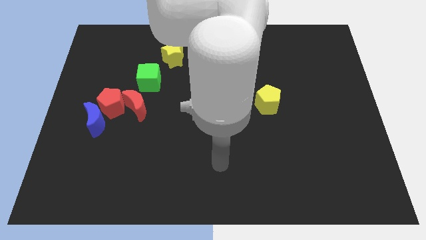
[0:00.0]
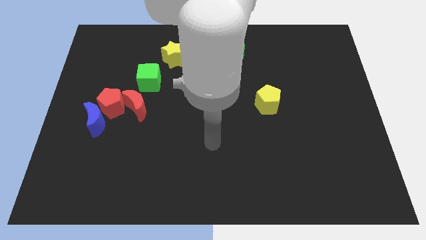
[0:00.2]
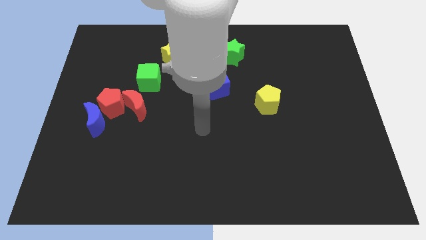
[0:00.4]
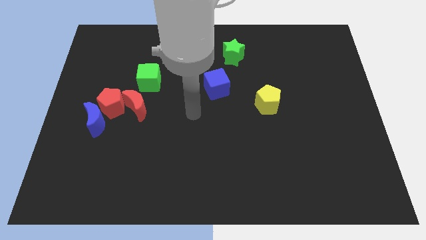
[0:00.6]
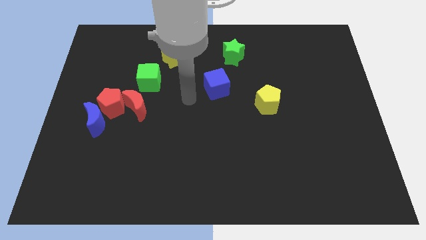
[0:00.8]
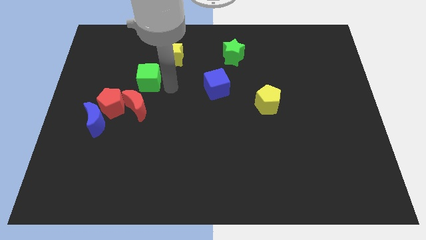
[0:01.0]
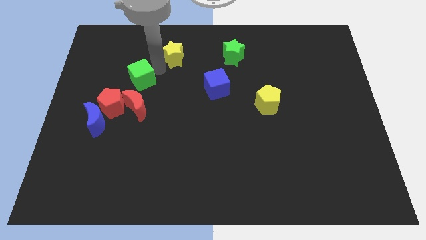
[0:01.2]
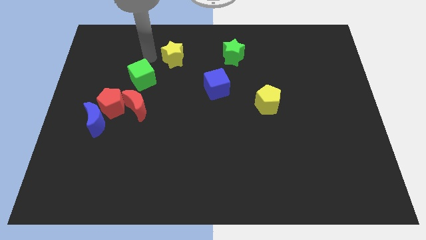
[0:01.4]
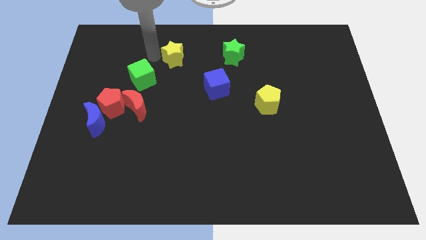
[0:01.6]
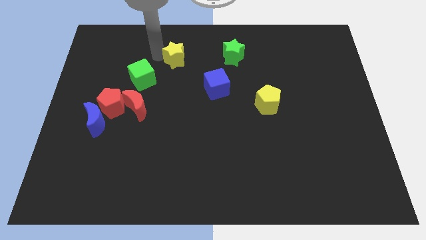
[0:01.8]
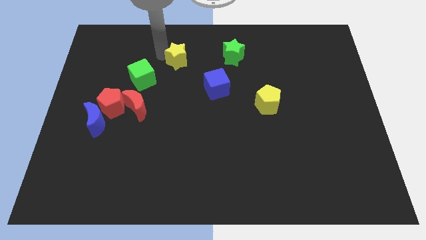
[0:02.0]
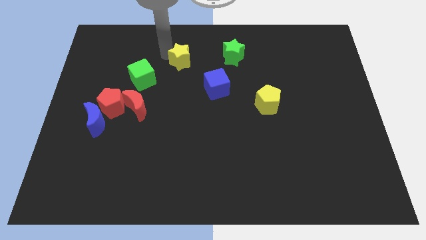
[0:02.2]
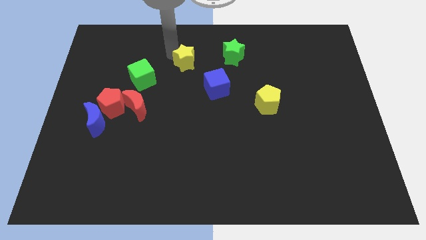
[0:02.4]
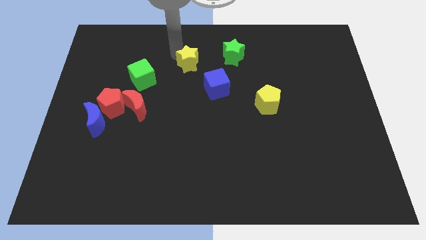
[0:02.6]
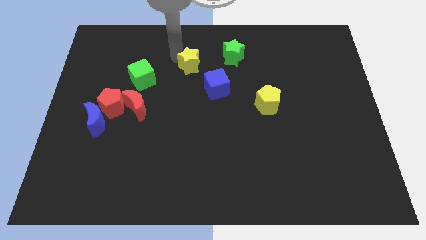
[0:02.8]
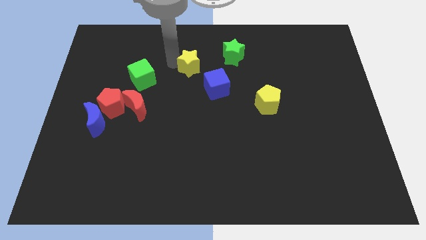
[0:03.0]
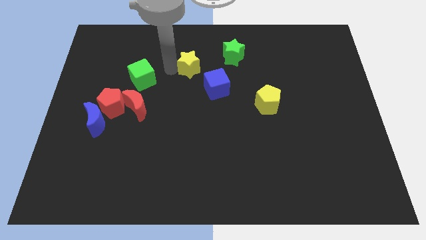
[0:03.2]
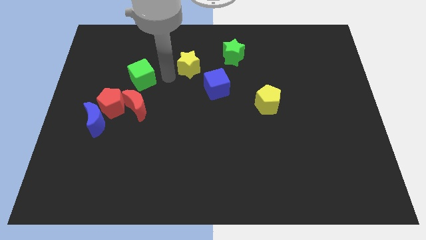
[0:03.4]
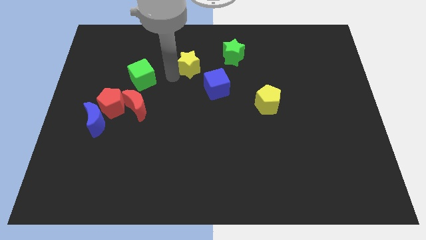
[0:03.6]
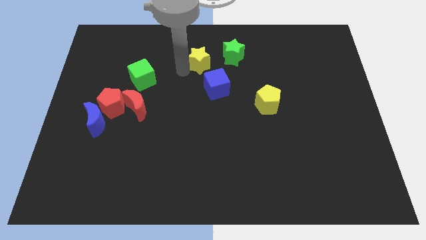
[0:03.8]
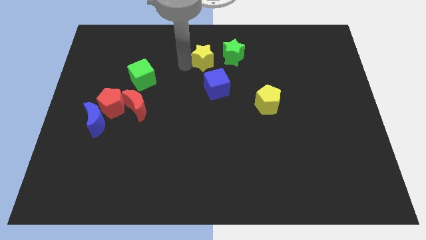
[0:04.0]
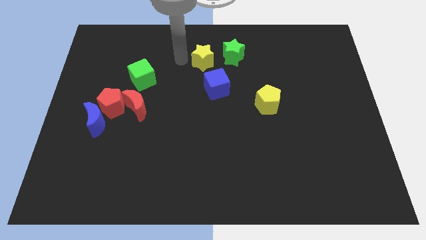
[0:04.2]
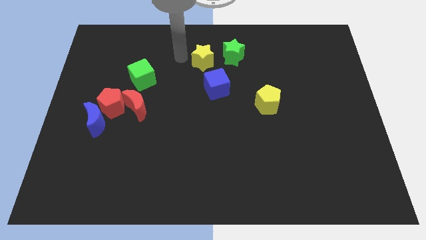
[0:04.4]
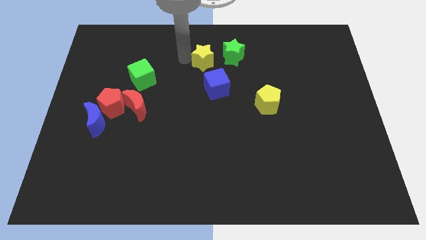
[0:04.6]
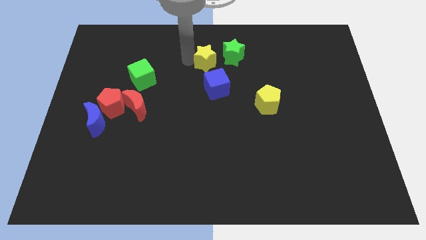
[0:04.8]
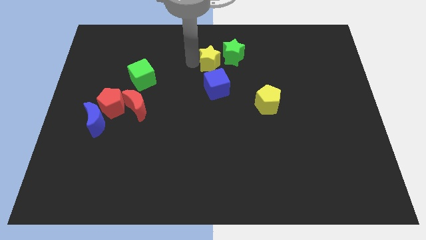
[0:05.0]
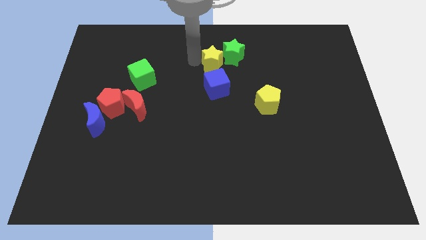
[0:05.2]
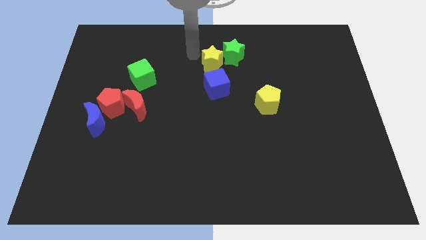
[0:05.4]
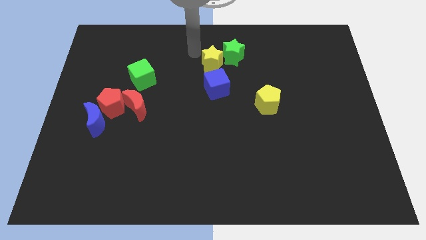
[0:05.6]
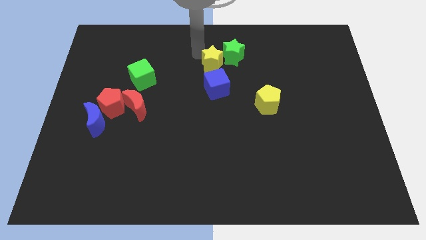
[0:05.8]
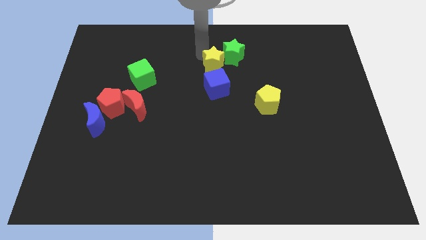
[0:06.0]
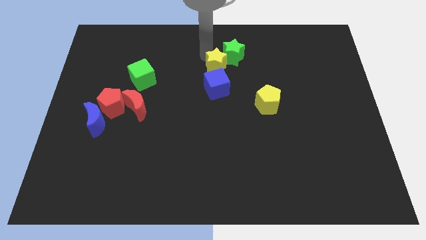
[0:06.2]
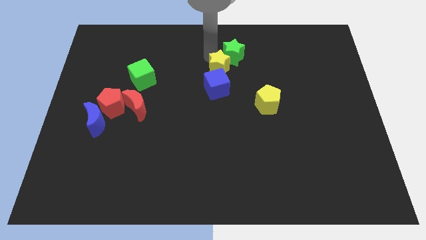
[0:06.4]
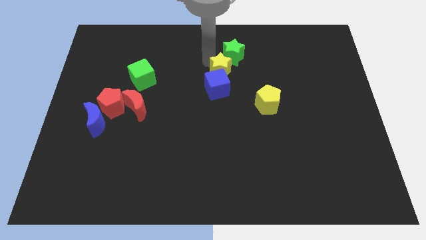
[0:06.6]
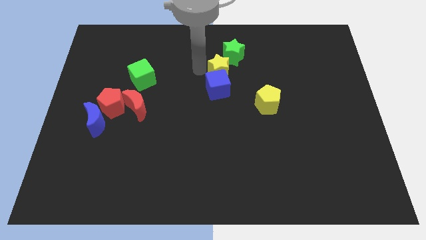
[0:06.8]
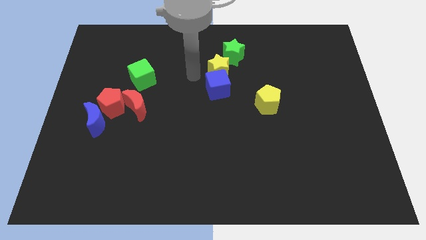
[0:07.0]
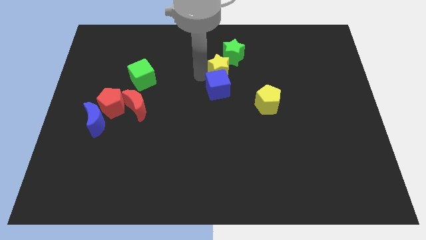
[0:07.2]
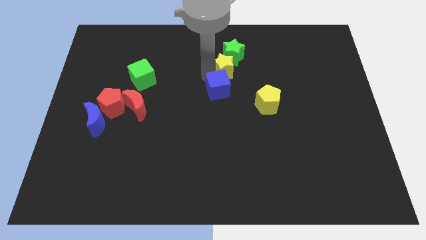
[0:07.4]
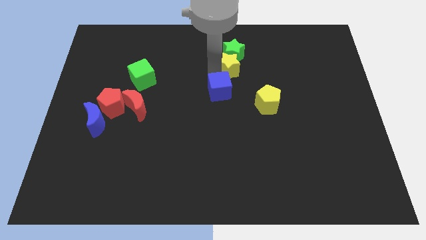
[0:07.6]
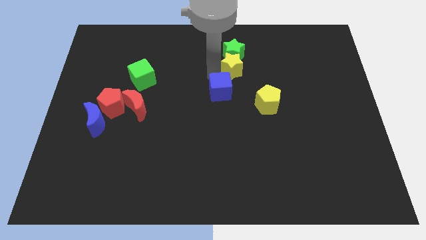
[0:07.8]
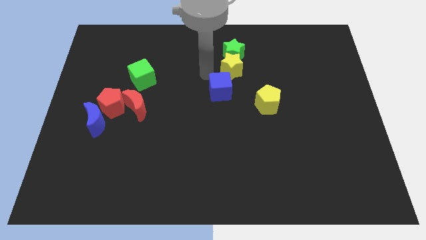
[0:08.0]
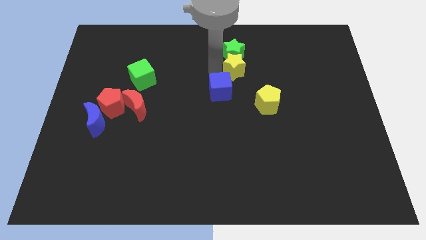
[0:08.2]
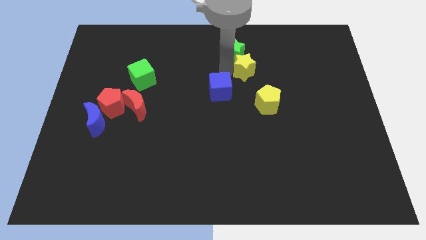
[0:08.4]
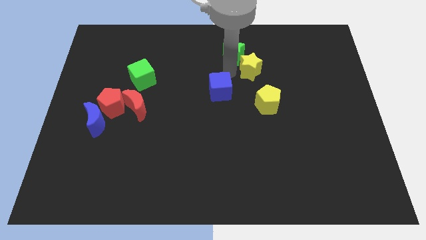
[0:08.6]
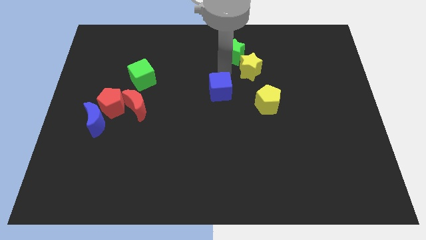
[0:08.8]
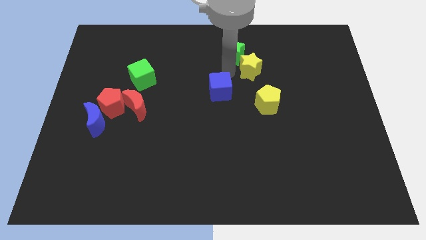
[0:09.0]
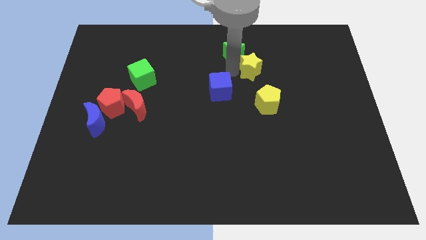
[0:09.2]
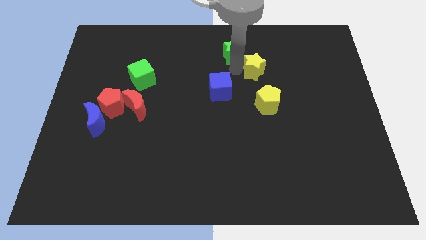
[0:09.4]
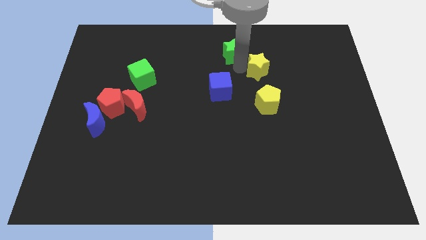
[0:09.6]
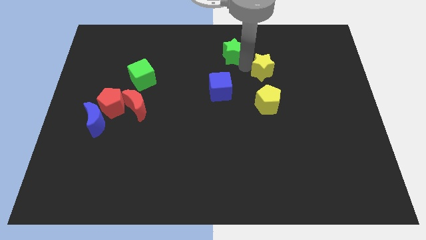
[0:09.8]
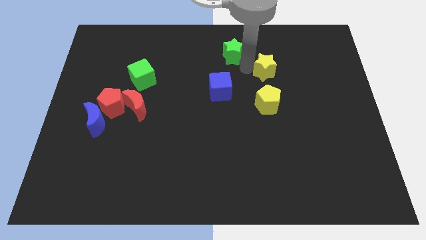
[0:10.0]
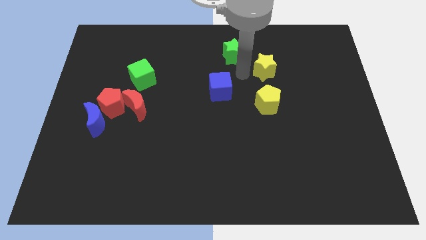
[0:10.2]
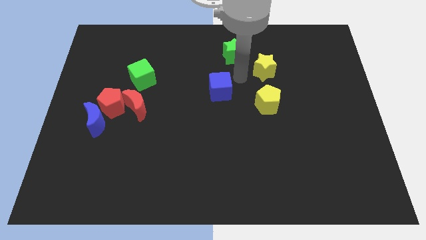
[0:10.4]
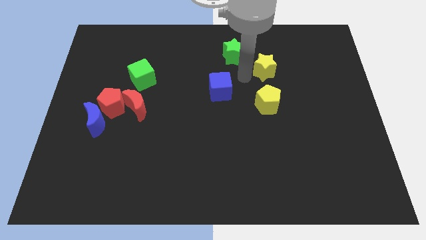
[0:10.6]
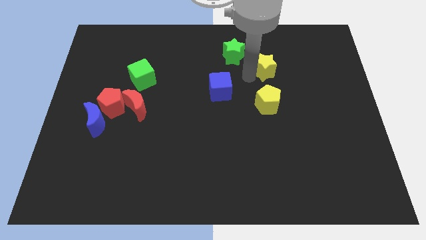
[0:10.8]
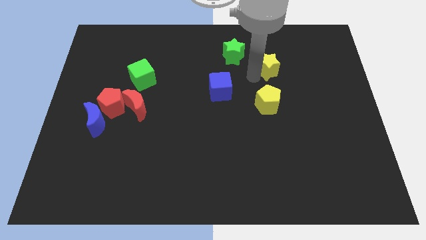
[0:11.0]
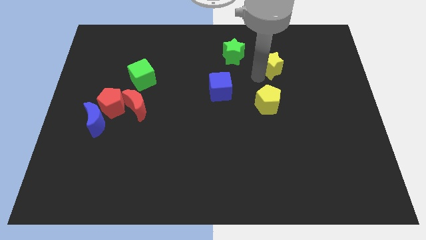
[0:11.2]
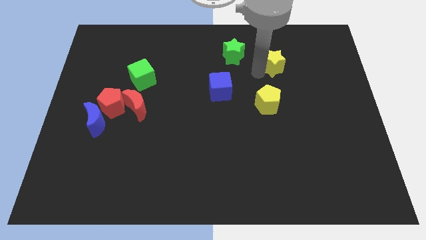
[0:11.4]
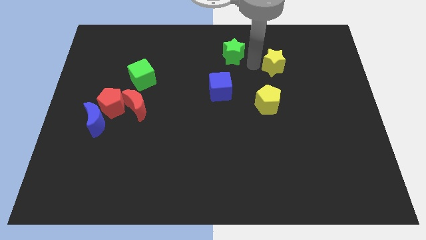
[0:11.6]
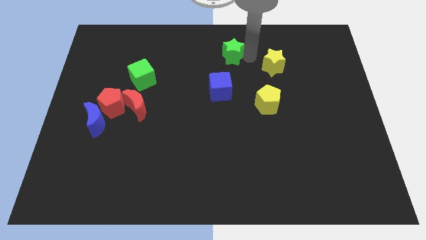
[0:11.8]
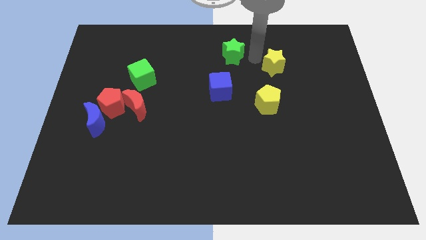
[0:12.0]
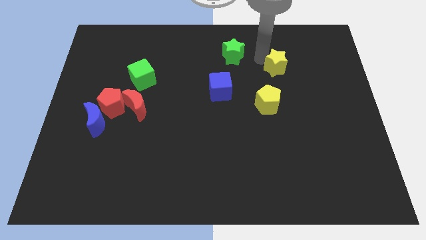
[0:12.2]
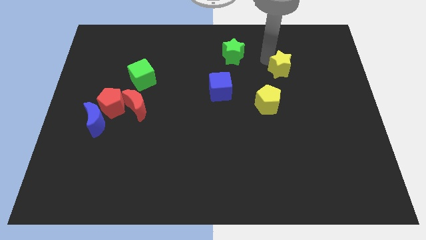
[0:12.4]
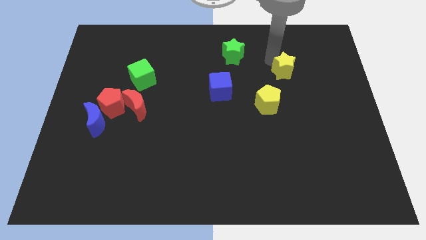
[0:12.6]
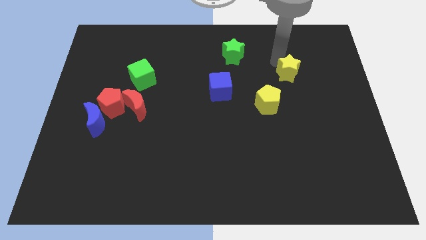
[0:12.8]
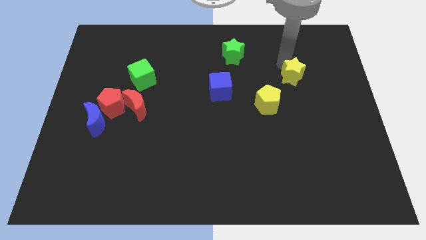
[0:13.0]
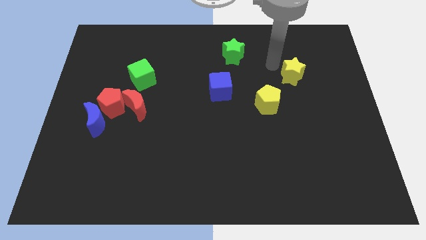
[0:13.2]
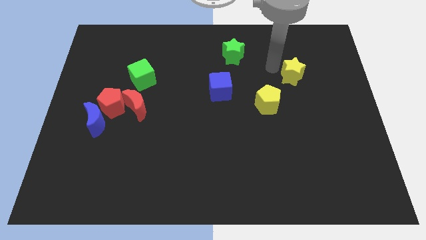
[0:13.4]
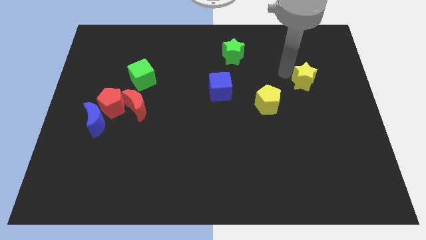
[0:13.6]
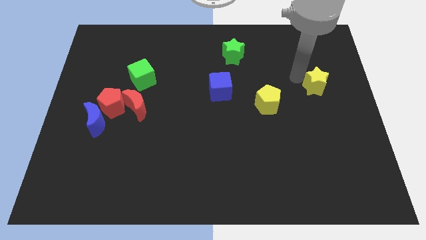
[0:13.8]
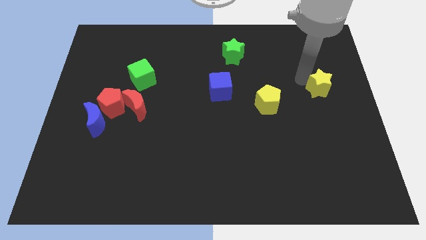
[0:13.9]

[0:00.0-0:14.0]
put the yellow star to the right side of the board
